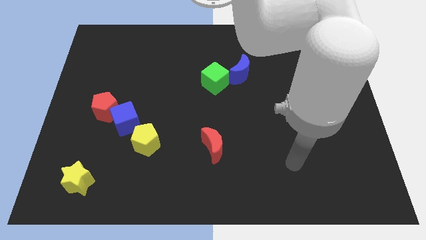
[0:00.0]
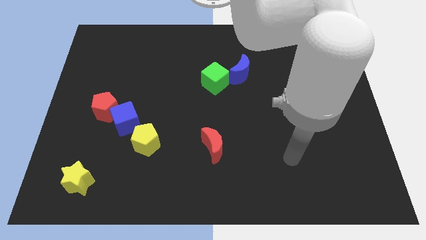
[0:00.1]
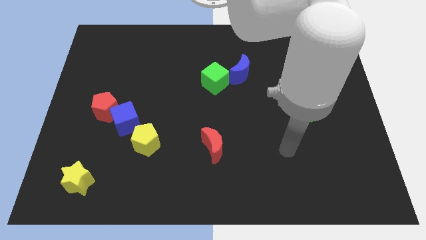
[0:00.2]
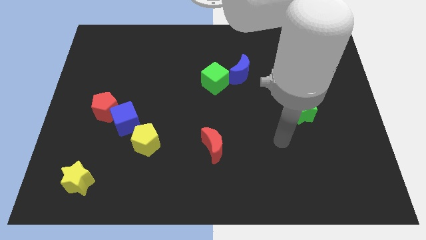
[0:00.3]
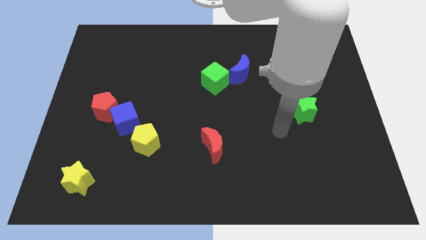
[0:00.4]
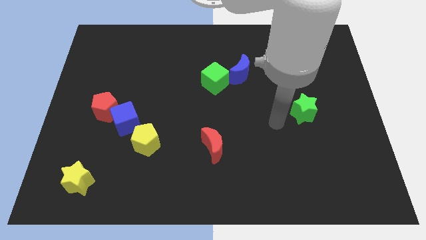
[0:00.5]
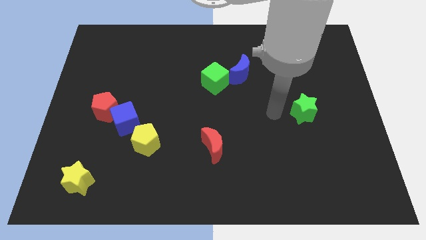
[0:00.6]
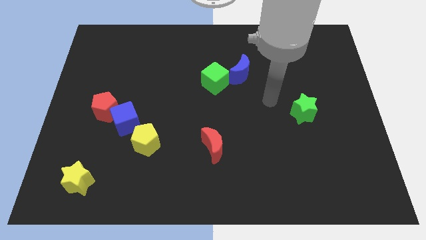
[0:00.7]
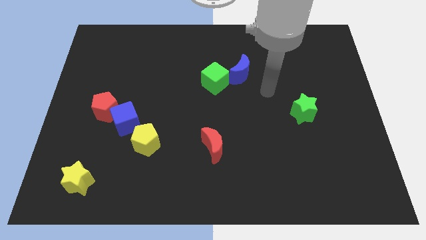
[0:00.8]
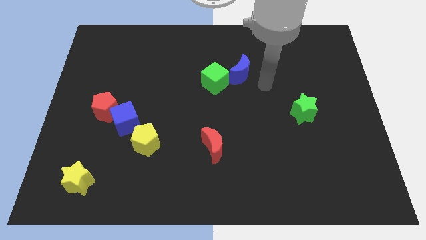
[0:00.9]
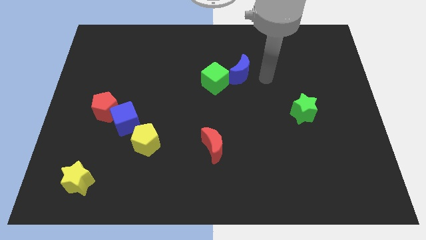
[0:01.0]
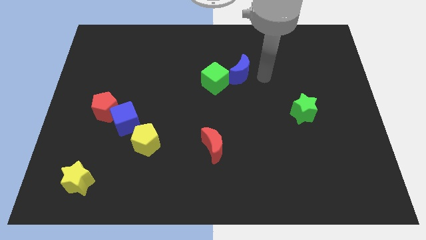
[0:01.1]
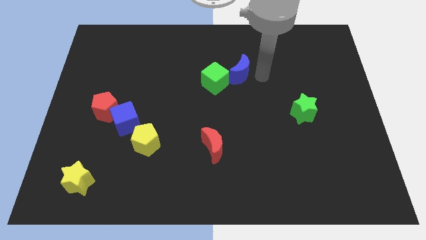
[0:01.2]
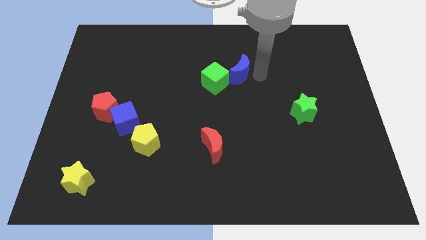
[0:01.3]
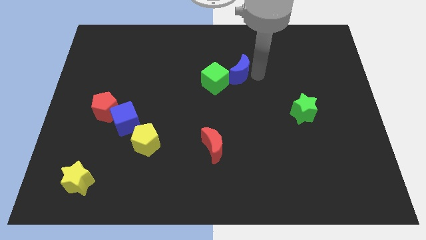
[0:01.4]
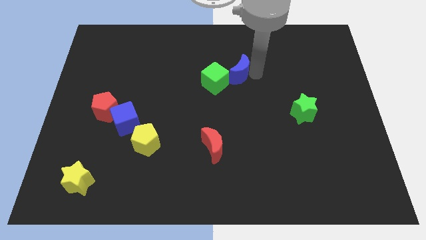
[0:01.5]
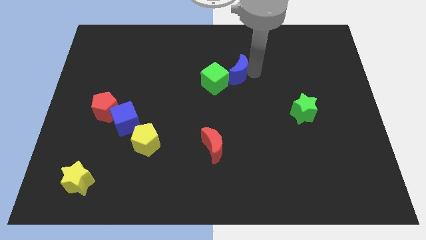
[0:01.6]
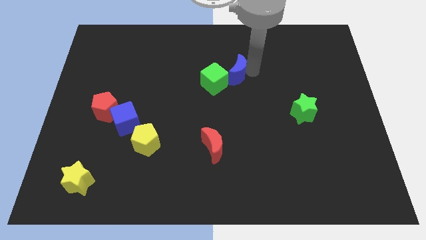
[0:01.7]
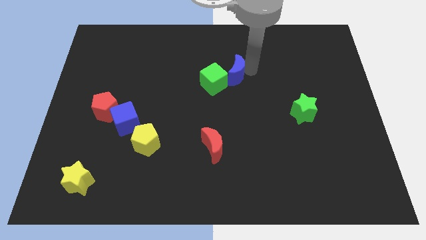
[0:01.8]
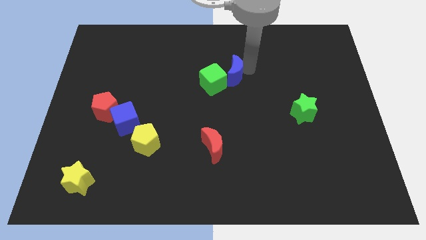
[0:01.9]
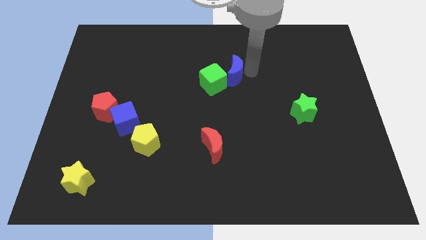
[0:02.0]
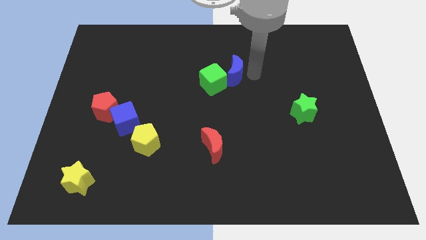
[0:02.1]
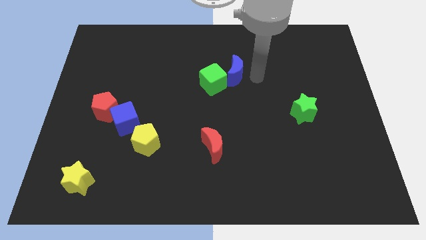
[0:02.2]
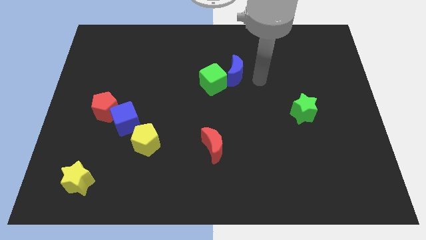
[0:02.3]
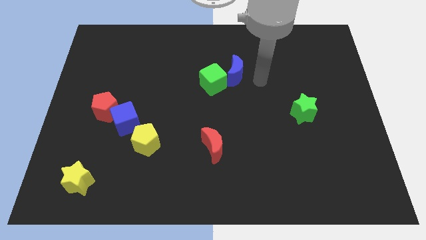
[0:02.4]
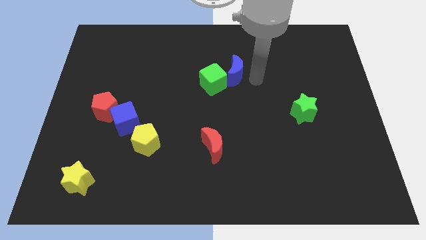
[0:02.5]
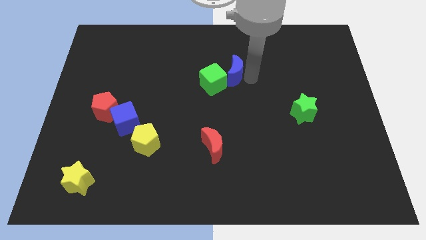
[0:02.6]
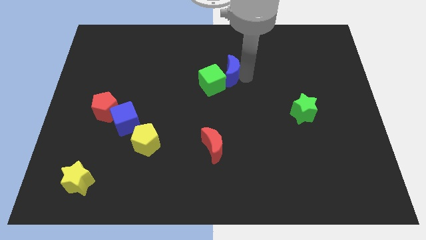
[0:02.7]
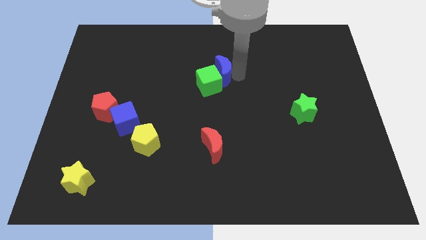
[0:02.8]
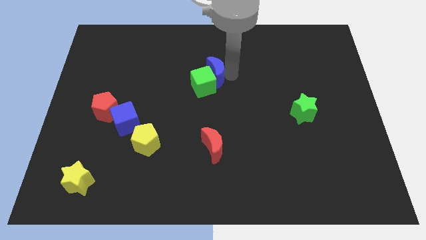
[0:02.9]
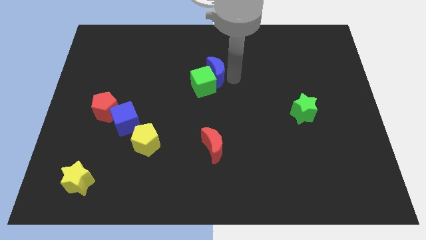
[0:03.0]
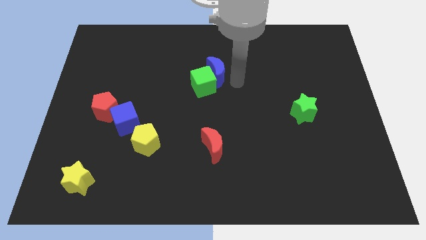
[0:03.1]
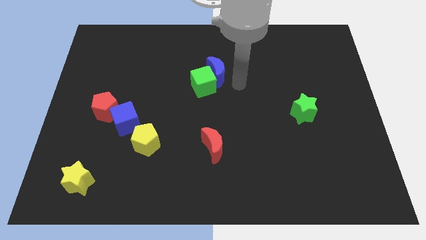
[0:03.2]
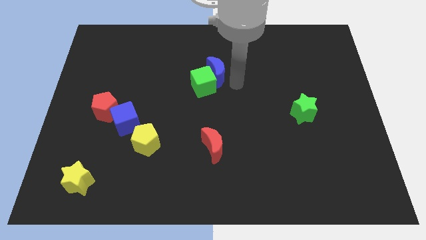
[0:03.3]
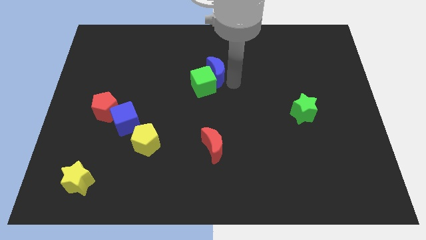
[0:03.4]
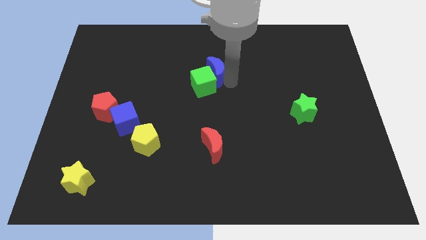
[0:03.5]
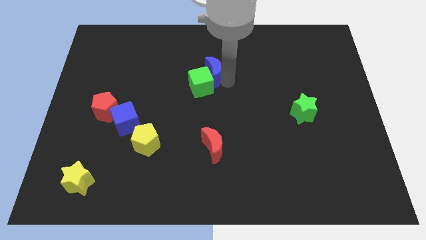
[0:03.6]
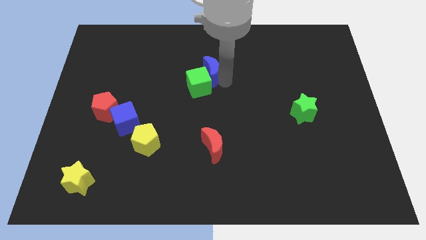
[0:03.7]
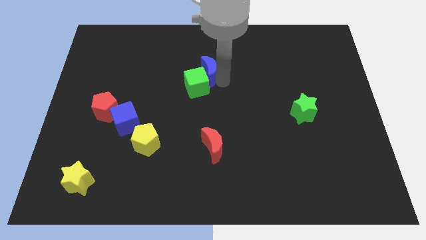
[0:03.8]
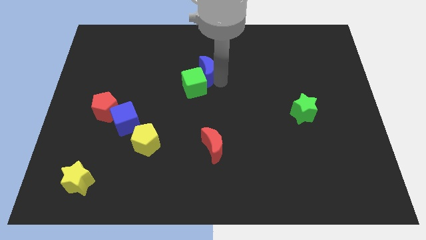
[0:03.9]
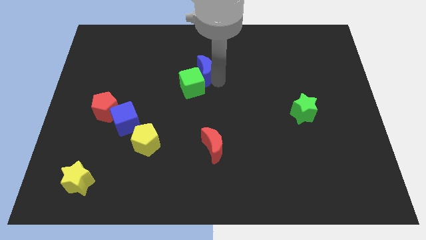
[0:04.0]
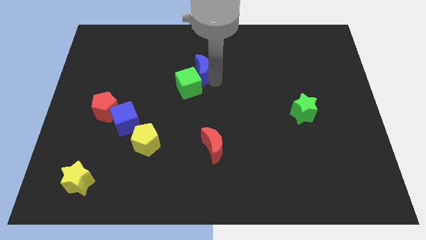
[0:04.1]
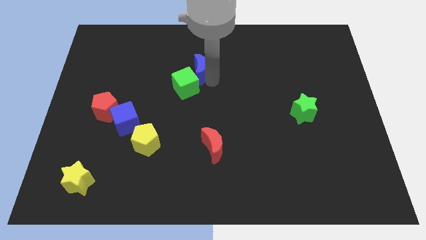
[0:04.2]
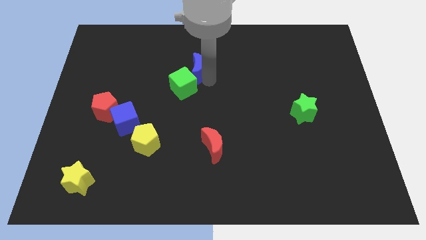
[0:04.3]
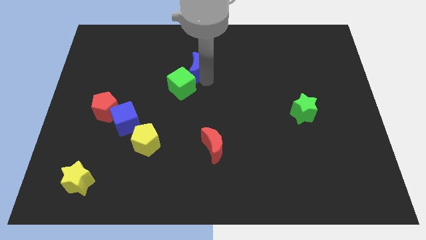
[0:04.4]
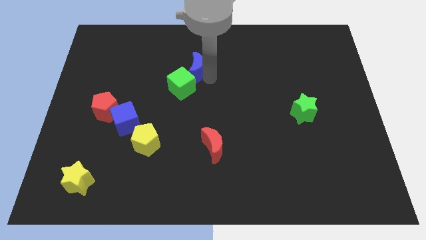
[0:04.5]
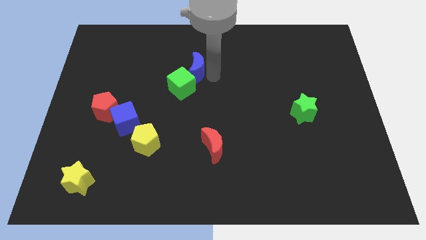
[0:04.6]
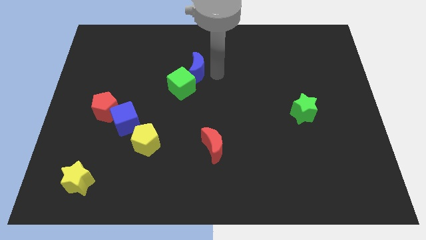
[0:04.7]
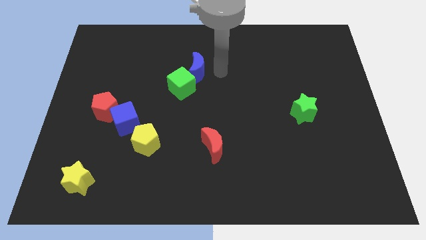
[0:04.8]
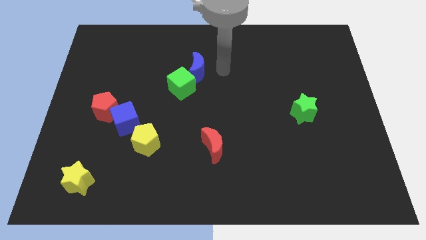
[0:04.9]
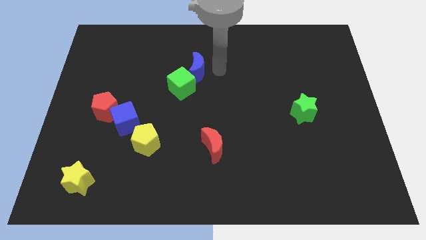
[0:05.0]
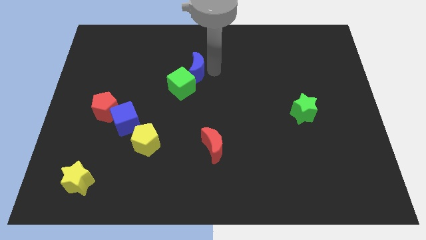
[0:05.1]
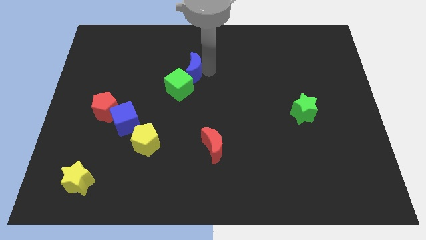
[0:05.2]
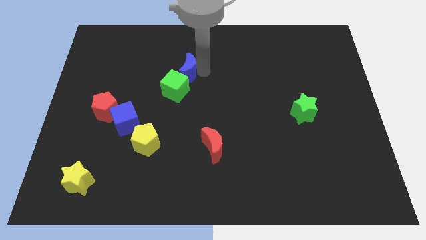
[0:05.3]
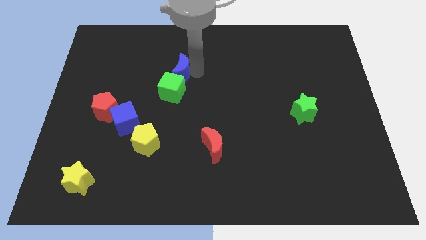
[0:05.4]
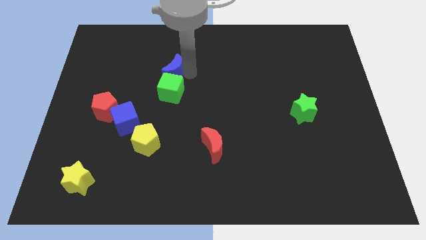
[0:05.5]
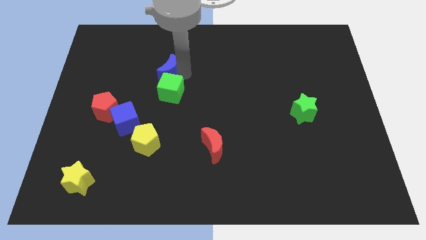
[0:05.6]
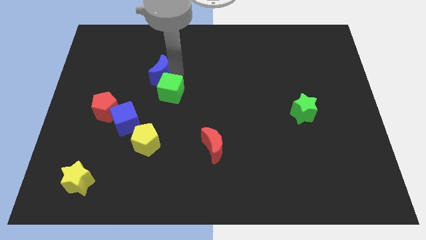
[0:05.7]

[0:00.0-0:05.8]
slide the blue moon left

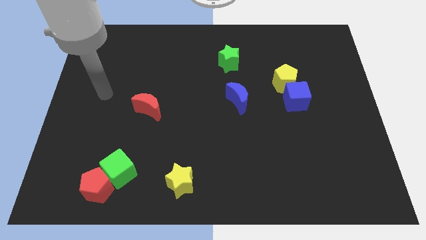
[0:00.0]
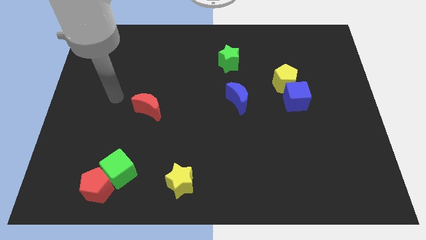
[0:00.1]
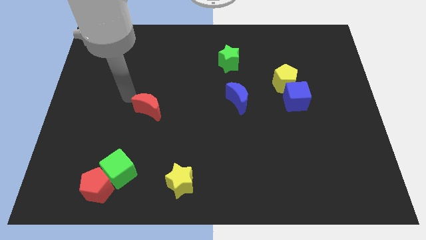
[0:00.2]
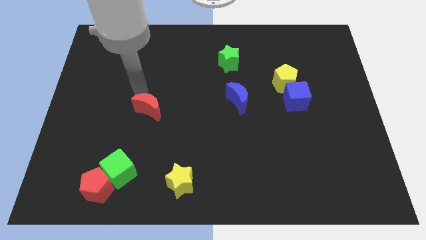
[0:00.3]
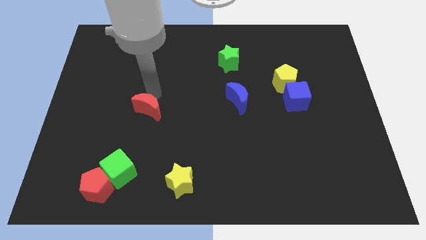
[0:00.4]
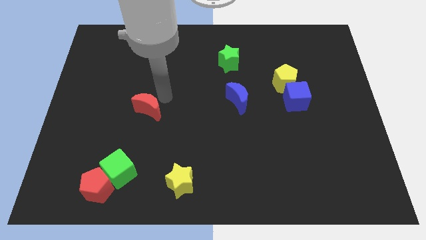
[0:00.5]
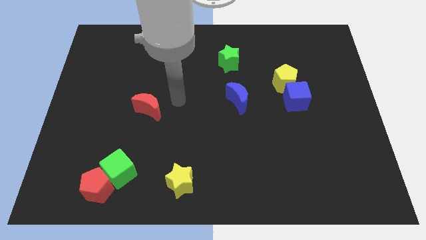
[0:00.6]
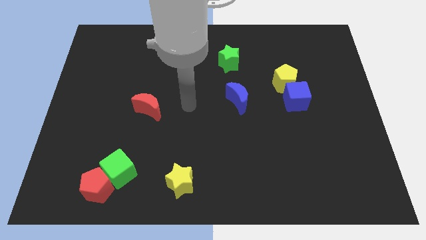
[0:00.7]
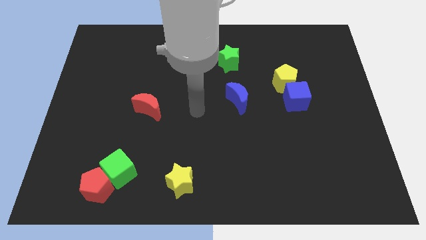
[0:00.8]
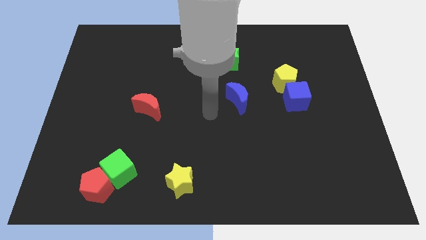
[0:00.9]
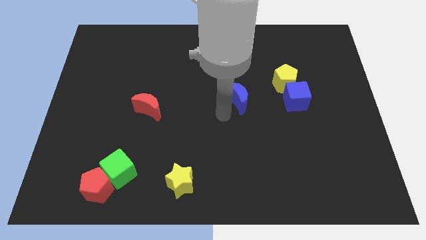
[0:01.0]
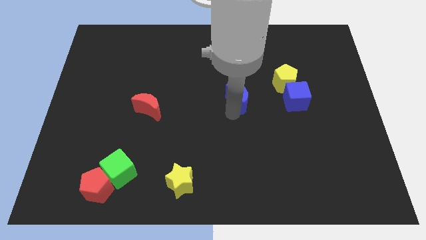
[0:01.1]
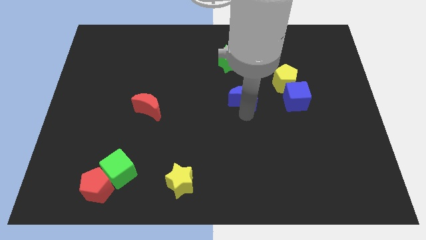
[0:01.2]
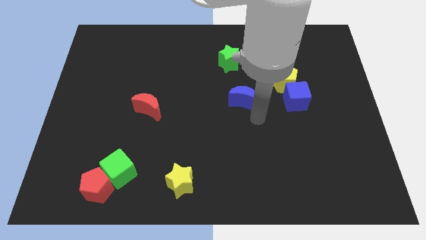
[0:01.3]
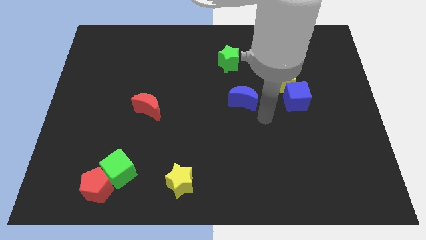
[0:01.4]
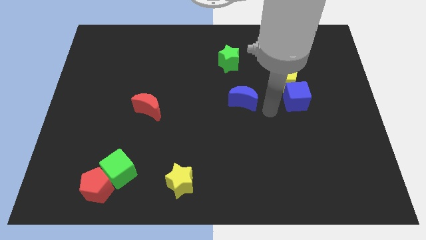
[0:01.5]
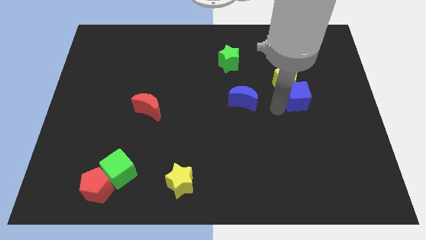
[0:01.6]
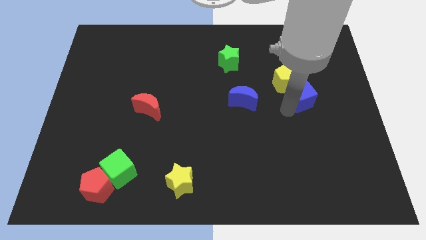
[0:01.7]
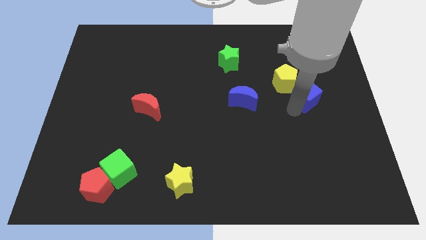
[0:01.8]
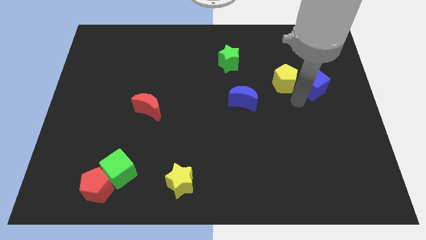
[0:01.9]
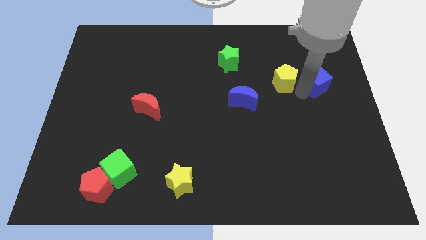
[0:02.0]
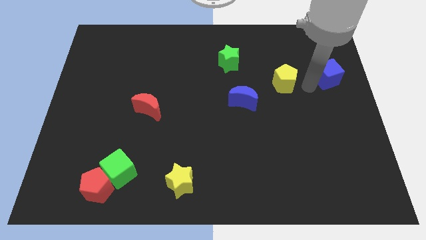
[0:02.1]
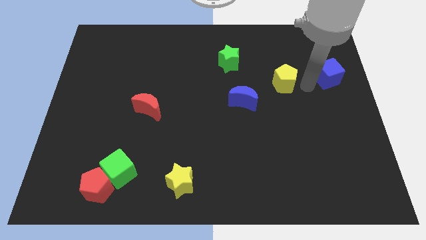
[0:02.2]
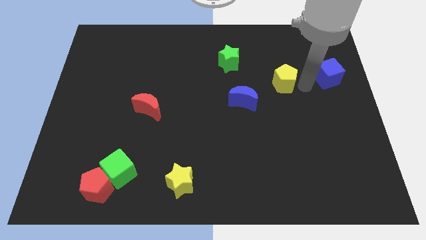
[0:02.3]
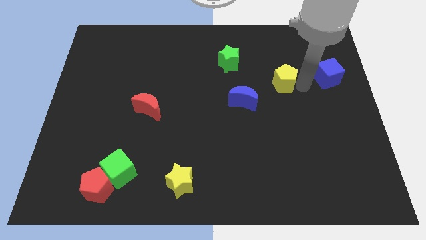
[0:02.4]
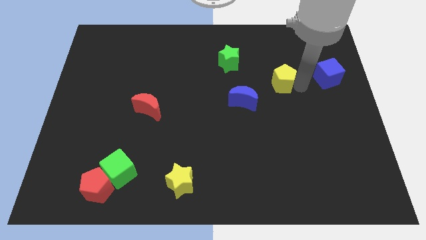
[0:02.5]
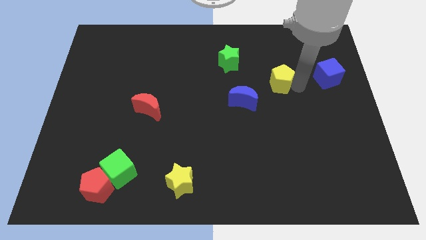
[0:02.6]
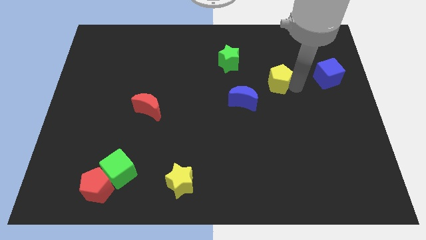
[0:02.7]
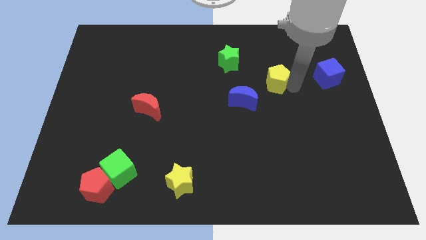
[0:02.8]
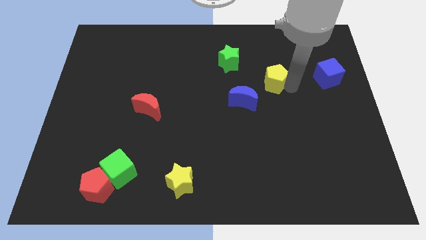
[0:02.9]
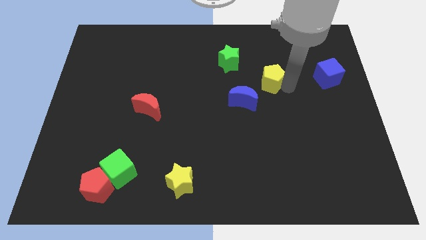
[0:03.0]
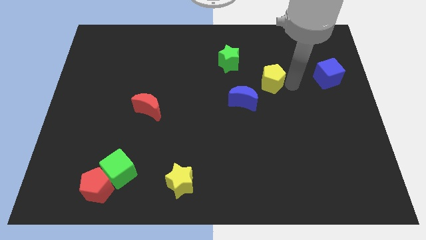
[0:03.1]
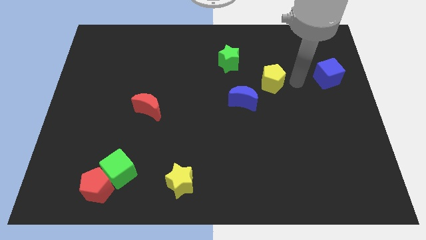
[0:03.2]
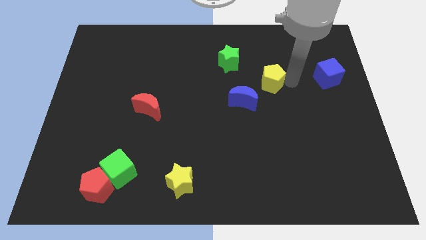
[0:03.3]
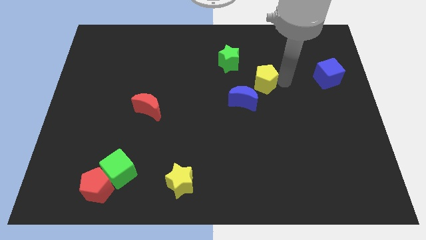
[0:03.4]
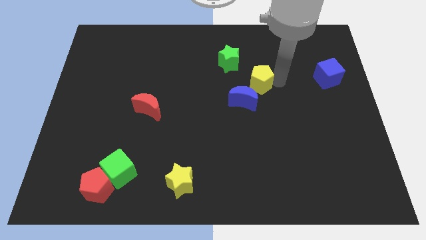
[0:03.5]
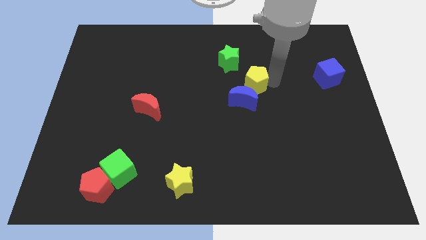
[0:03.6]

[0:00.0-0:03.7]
move the yellow pentagon slightly left
